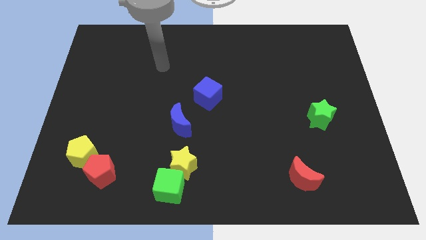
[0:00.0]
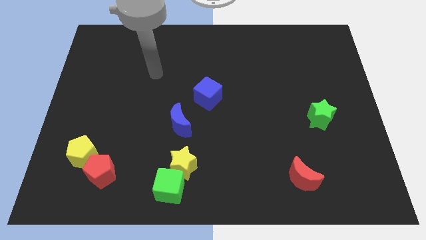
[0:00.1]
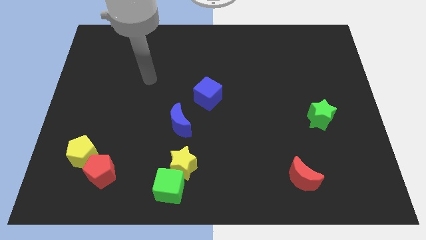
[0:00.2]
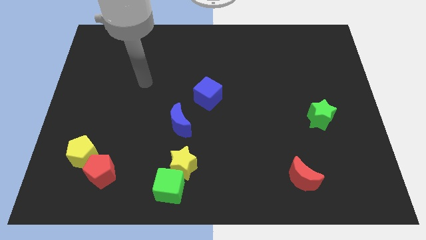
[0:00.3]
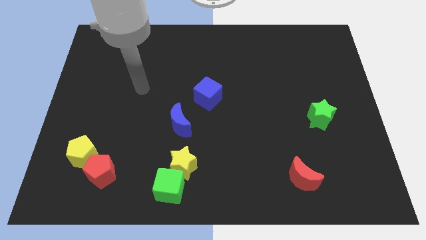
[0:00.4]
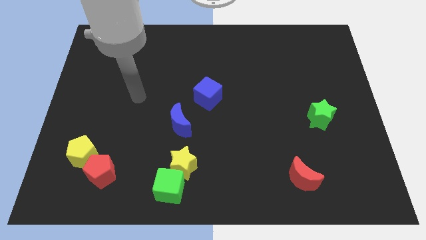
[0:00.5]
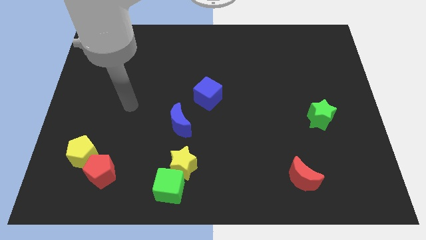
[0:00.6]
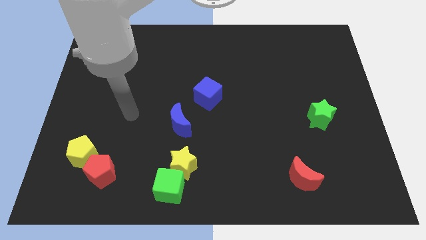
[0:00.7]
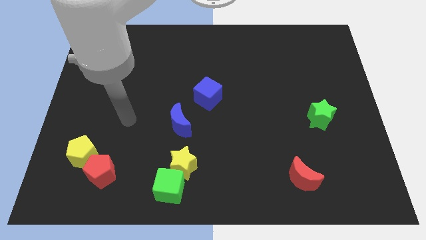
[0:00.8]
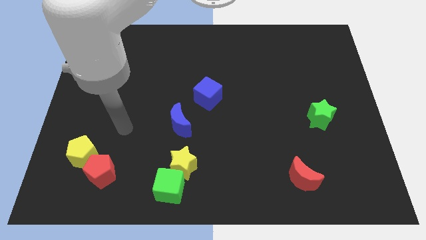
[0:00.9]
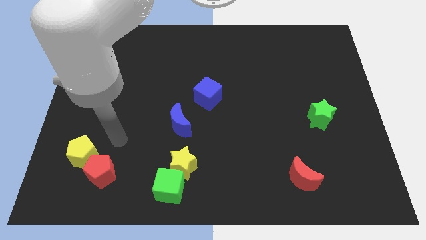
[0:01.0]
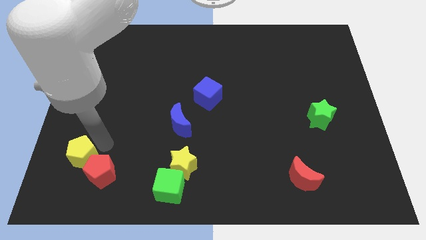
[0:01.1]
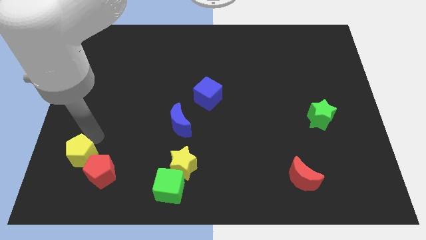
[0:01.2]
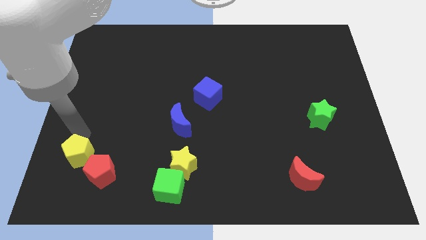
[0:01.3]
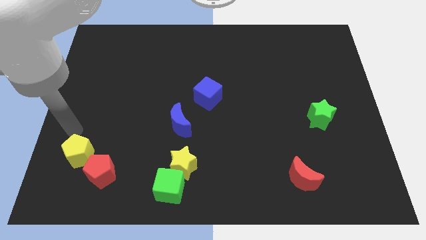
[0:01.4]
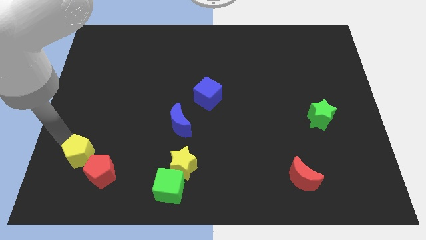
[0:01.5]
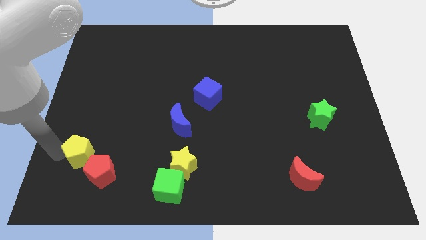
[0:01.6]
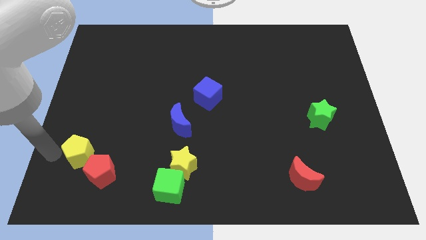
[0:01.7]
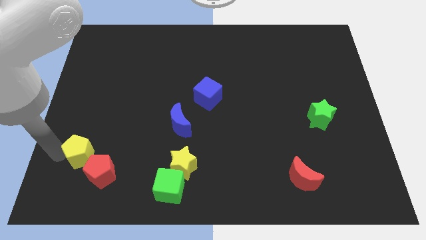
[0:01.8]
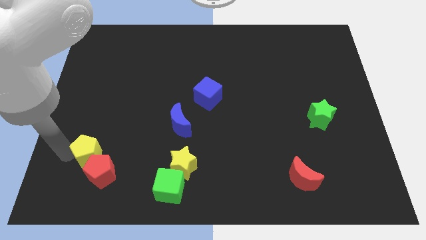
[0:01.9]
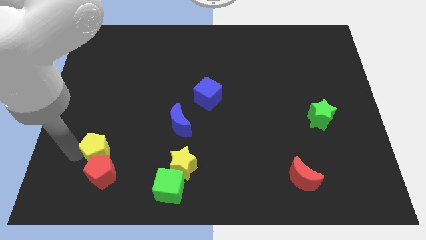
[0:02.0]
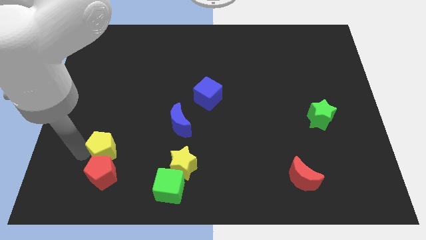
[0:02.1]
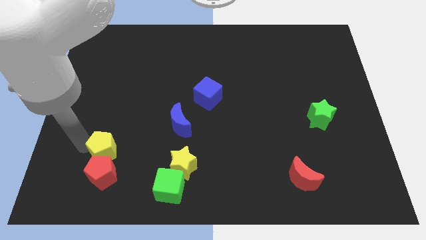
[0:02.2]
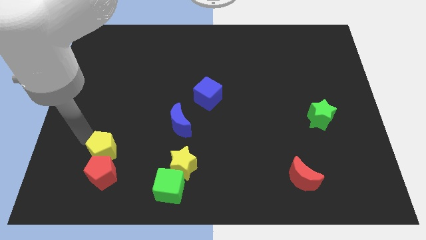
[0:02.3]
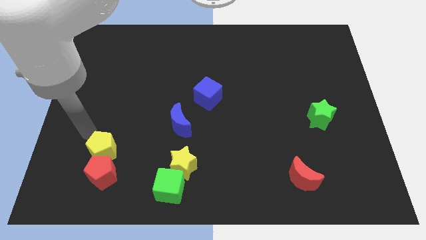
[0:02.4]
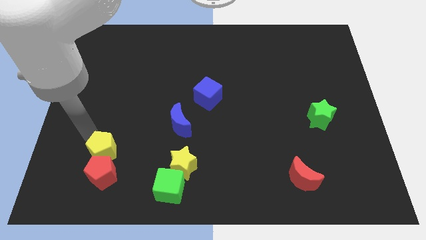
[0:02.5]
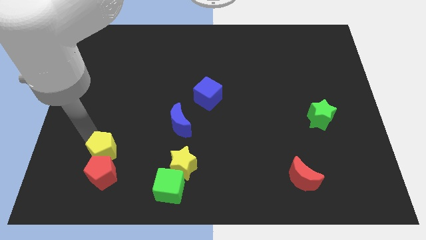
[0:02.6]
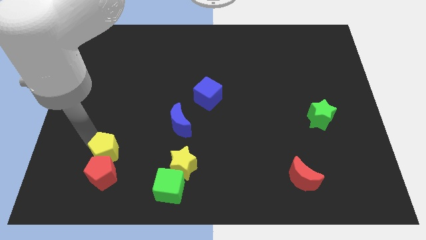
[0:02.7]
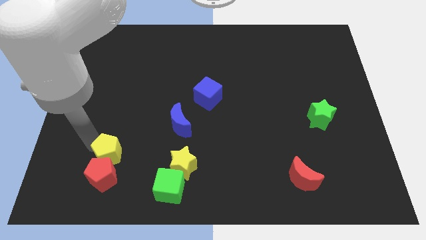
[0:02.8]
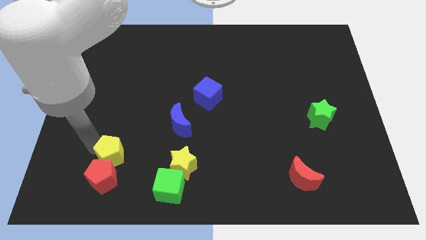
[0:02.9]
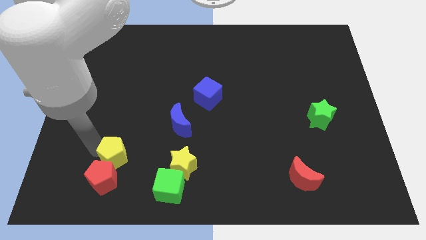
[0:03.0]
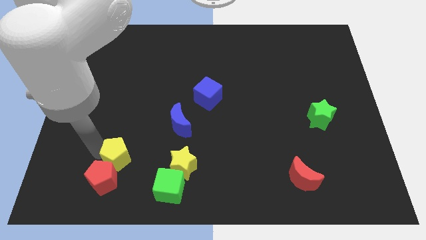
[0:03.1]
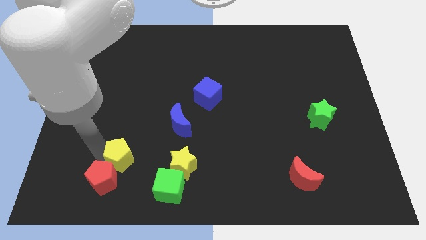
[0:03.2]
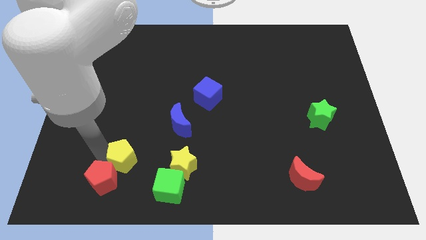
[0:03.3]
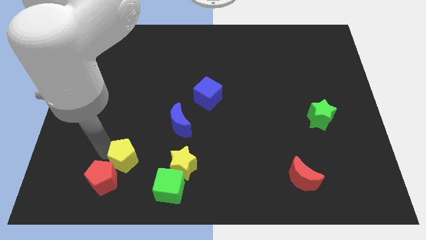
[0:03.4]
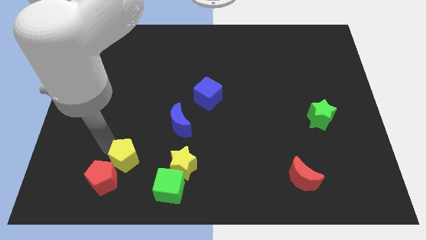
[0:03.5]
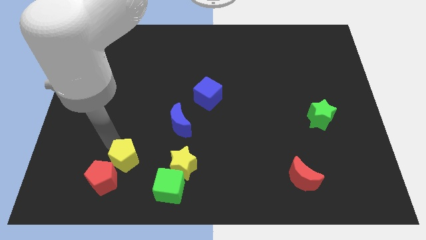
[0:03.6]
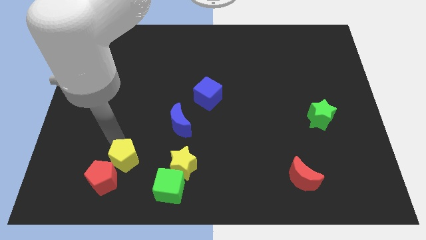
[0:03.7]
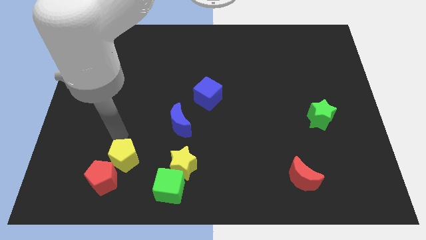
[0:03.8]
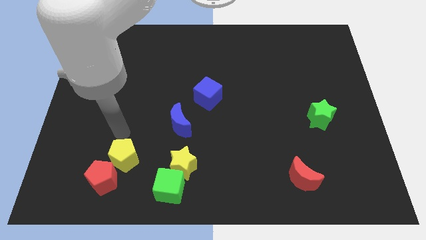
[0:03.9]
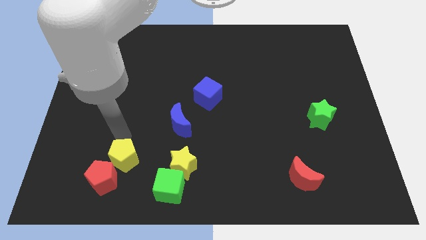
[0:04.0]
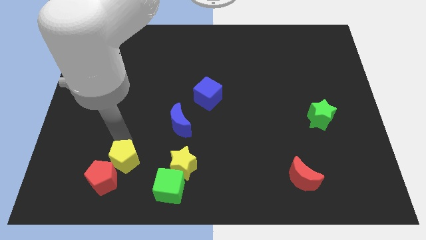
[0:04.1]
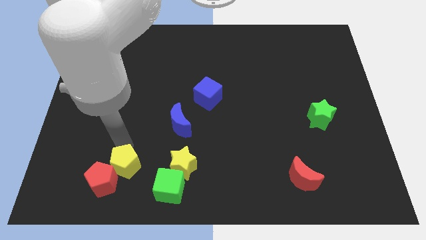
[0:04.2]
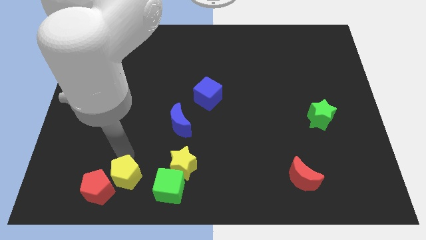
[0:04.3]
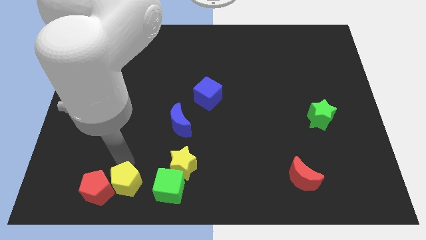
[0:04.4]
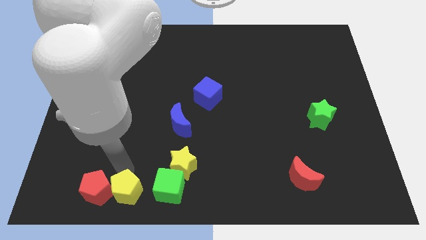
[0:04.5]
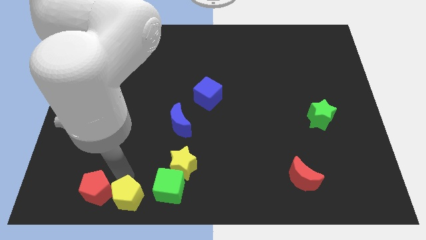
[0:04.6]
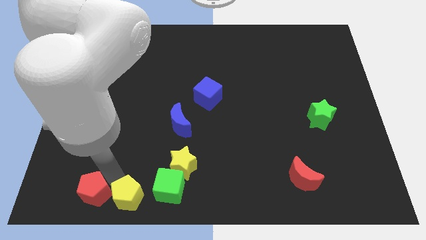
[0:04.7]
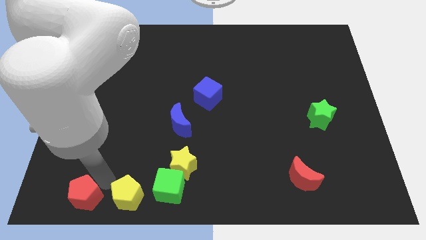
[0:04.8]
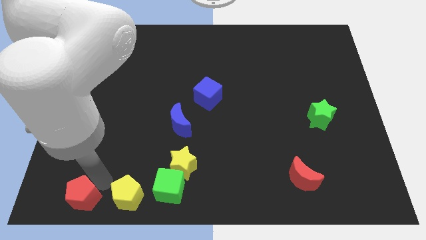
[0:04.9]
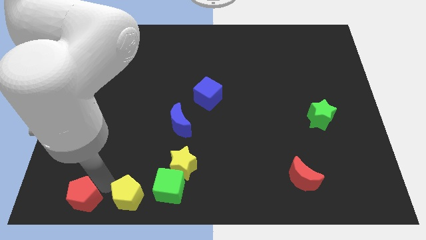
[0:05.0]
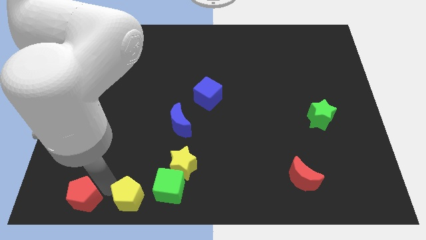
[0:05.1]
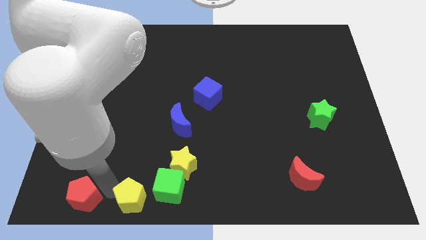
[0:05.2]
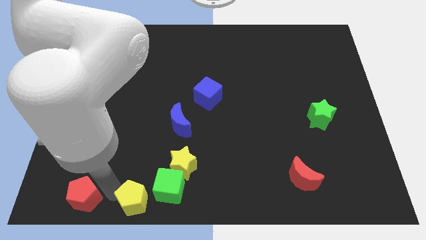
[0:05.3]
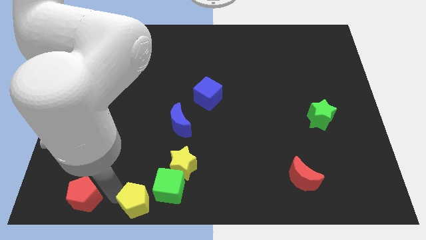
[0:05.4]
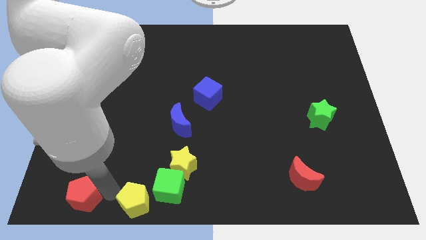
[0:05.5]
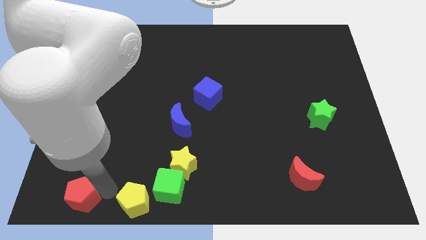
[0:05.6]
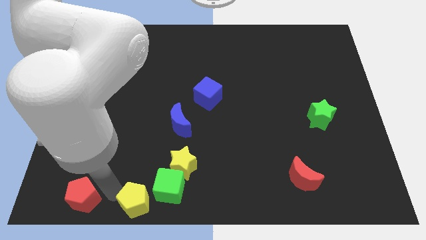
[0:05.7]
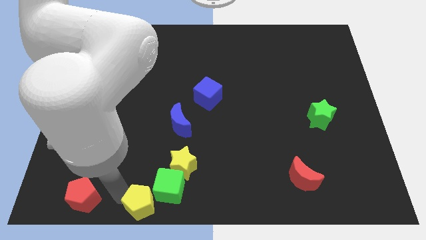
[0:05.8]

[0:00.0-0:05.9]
slide the yellow pentagon to the bottom

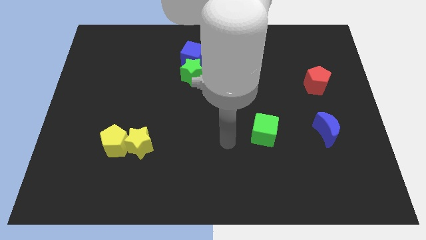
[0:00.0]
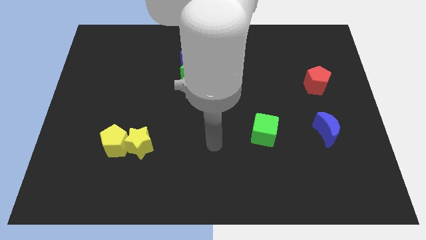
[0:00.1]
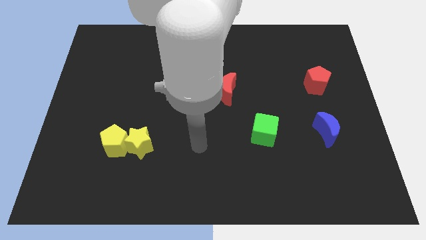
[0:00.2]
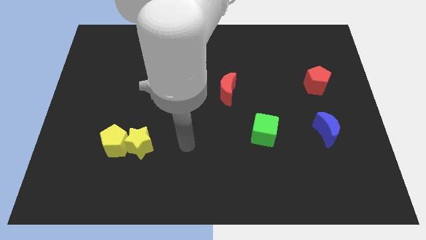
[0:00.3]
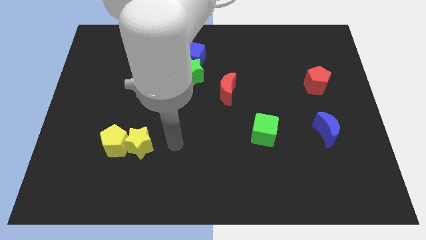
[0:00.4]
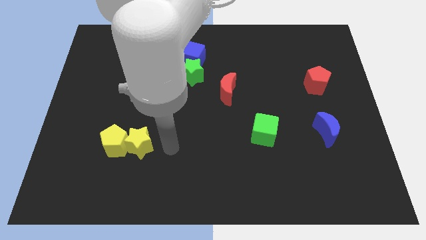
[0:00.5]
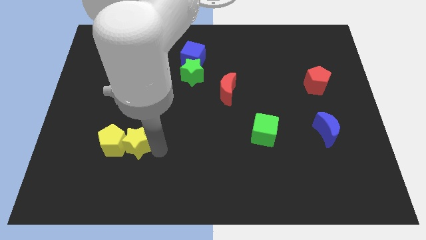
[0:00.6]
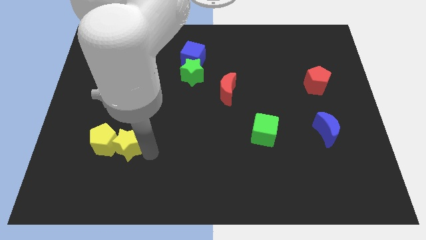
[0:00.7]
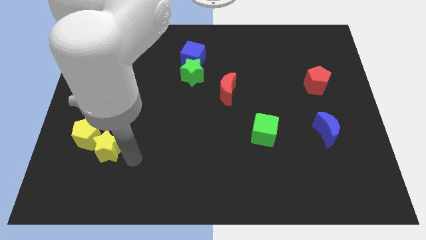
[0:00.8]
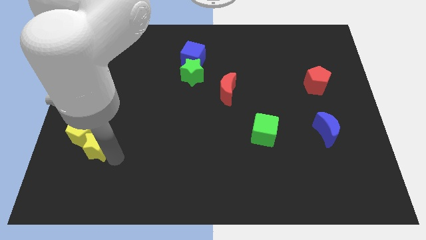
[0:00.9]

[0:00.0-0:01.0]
slide the yellow pentagon to the left side of the board
